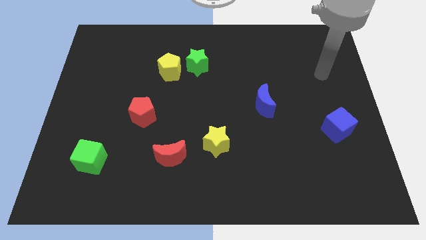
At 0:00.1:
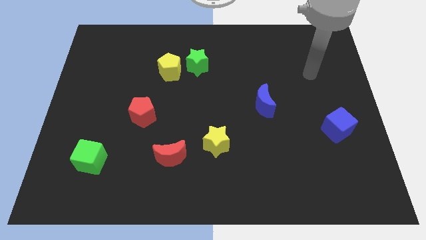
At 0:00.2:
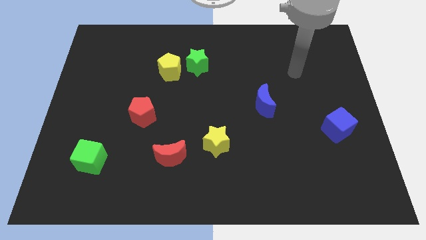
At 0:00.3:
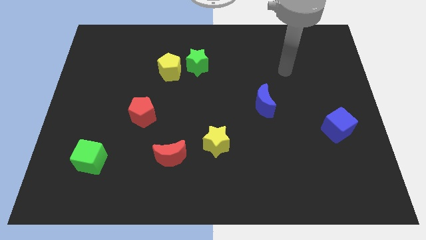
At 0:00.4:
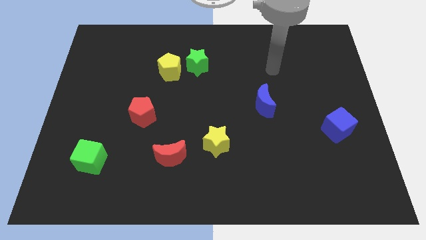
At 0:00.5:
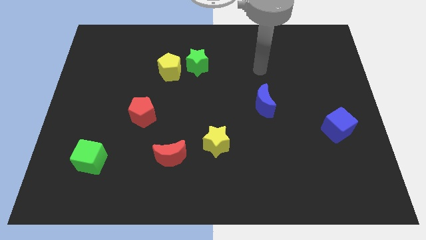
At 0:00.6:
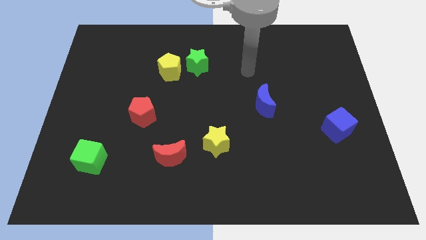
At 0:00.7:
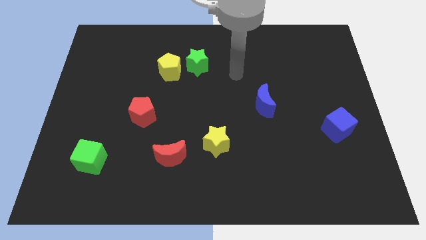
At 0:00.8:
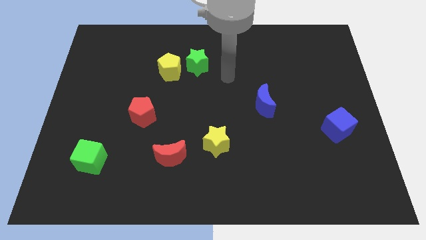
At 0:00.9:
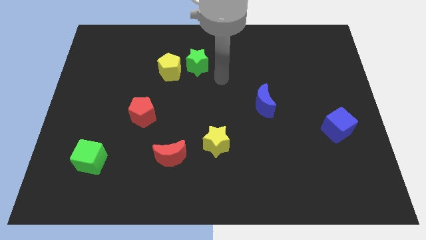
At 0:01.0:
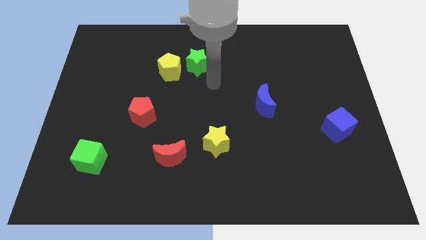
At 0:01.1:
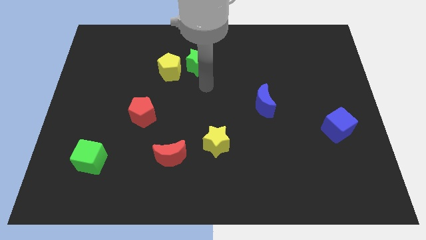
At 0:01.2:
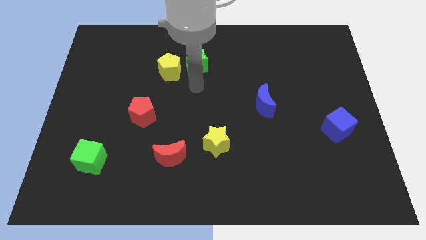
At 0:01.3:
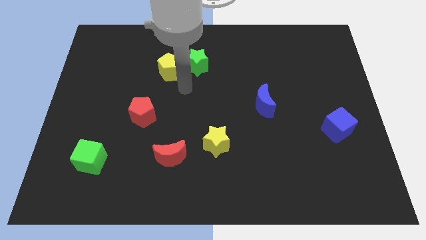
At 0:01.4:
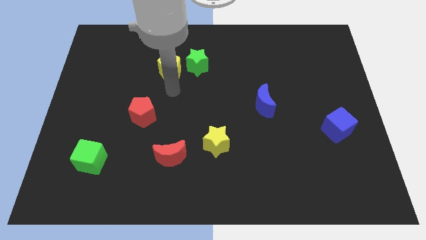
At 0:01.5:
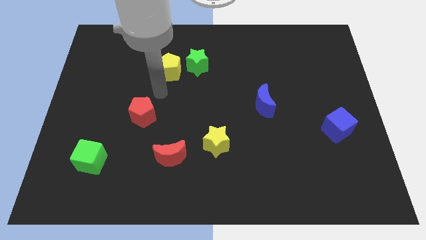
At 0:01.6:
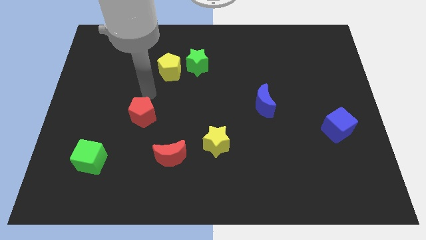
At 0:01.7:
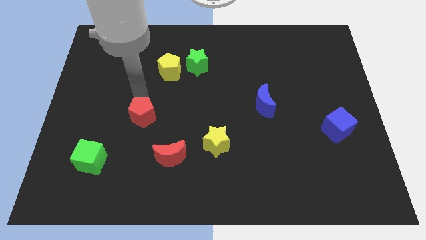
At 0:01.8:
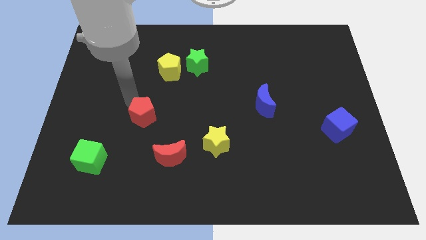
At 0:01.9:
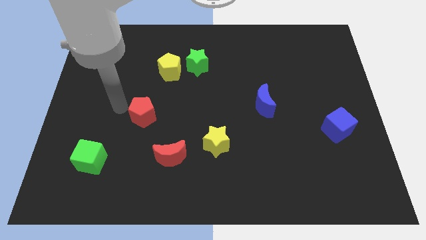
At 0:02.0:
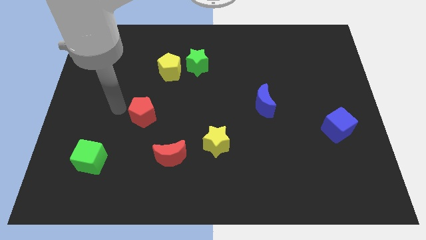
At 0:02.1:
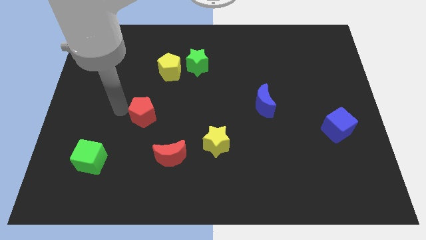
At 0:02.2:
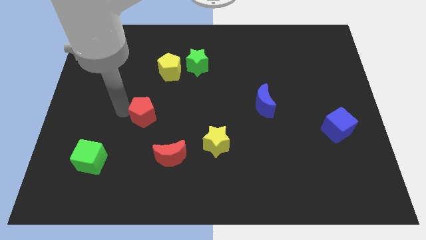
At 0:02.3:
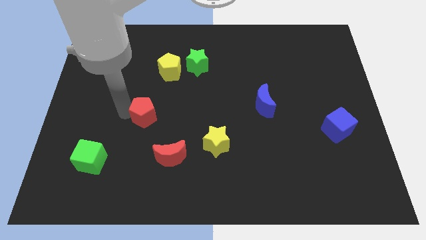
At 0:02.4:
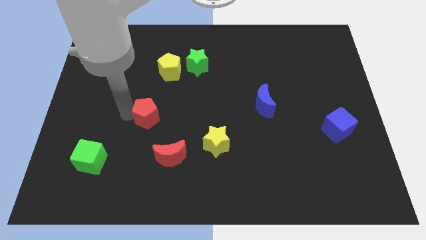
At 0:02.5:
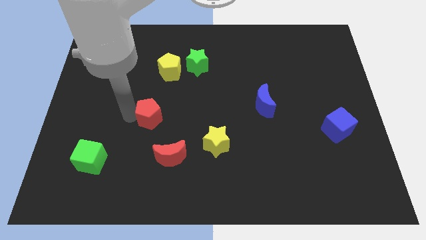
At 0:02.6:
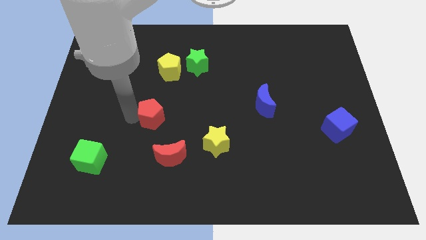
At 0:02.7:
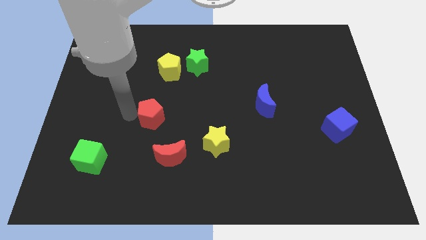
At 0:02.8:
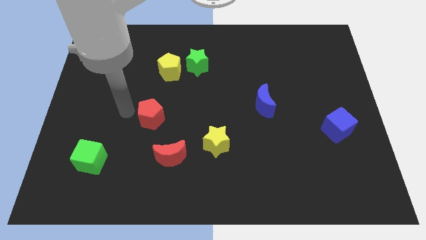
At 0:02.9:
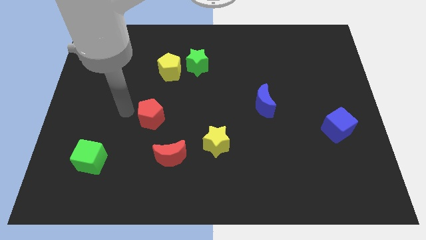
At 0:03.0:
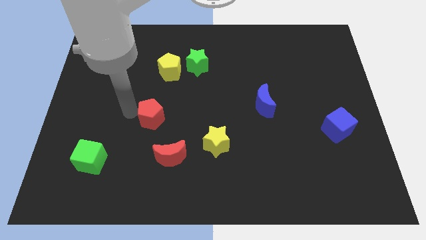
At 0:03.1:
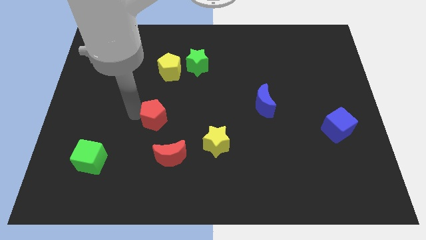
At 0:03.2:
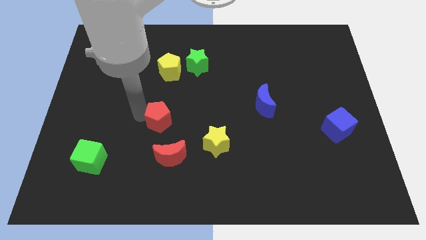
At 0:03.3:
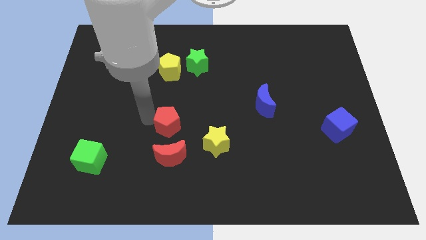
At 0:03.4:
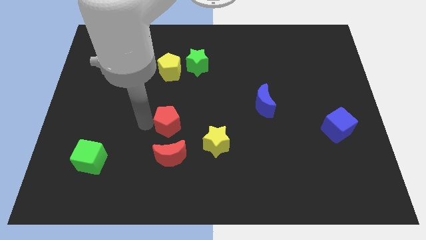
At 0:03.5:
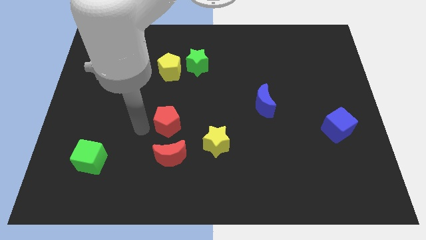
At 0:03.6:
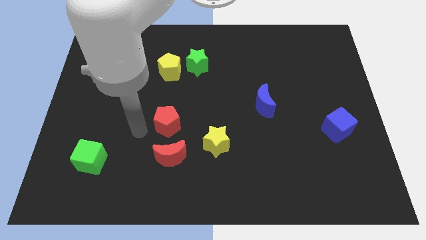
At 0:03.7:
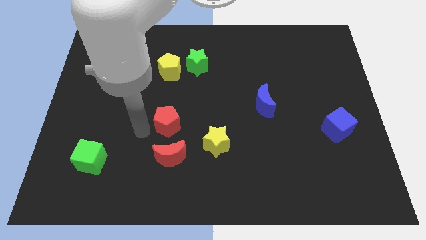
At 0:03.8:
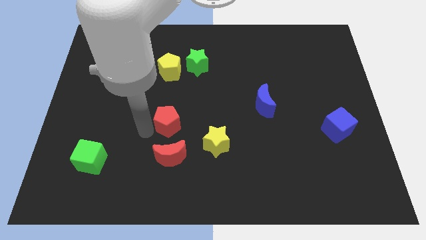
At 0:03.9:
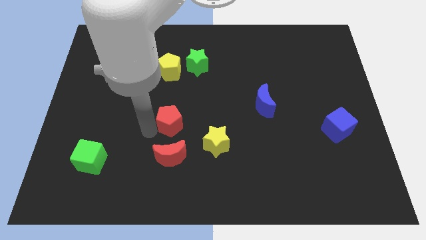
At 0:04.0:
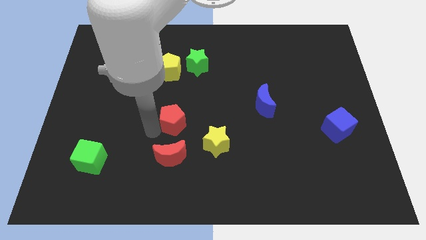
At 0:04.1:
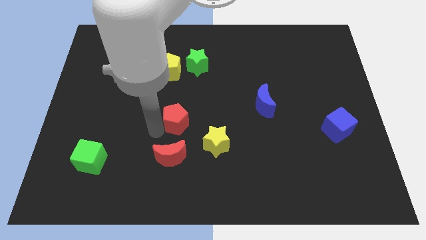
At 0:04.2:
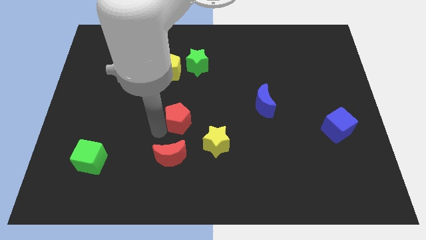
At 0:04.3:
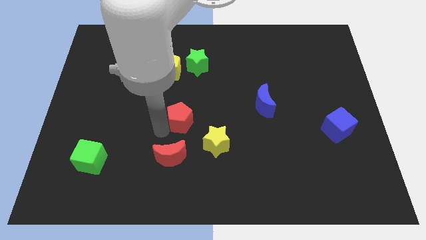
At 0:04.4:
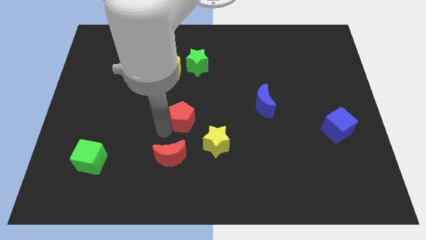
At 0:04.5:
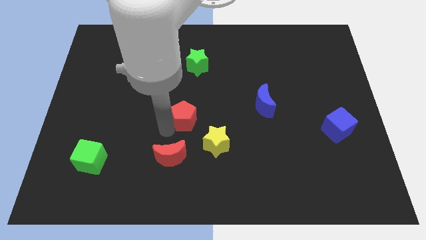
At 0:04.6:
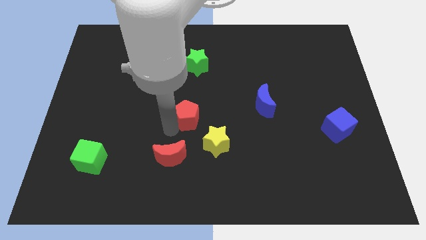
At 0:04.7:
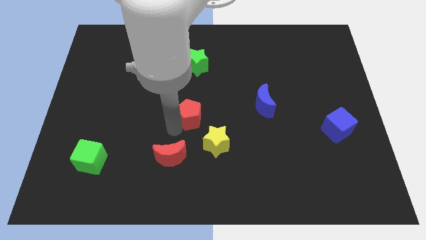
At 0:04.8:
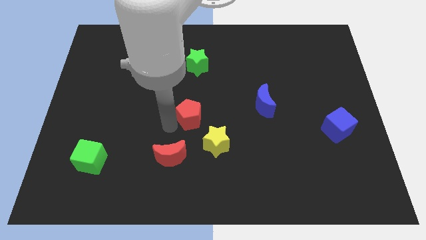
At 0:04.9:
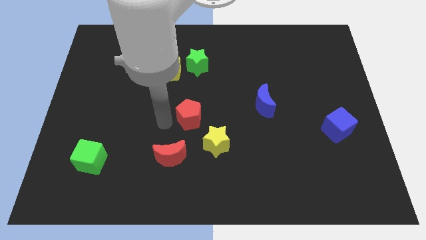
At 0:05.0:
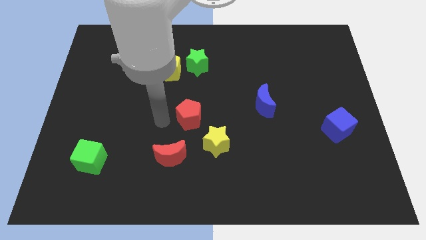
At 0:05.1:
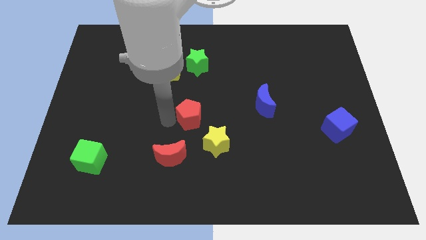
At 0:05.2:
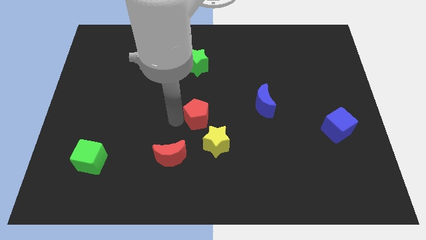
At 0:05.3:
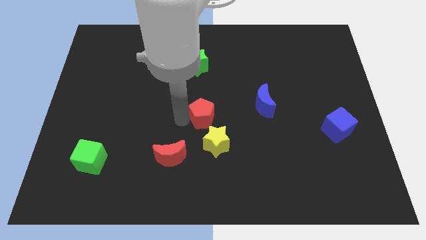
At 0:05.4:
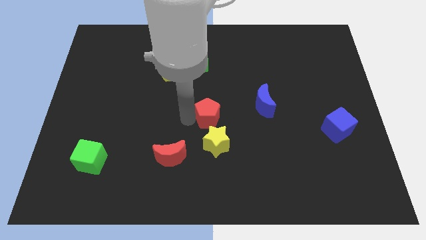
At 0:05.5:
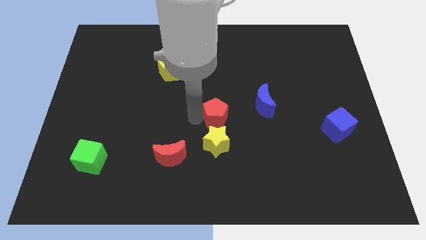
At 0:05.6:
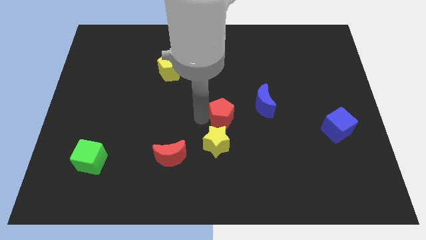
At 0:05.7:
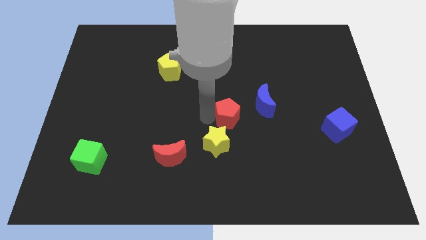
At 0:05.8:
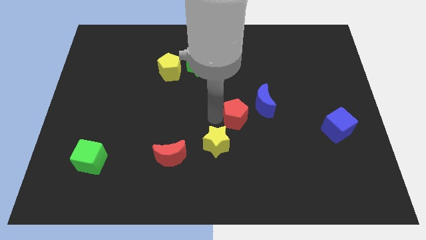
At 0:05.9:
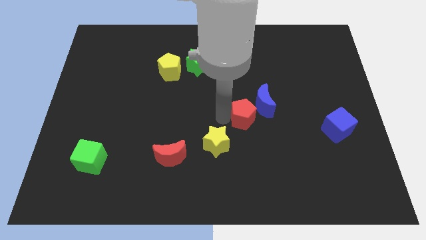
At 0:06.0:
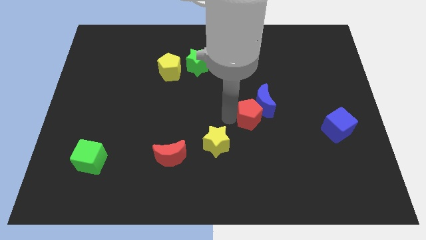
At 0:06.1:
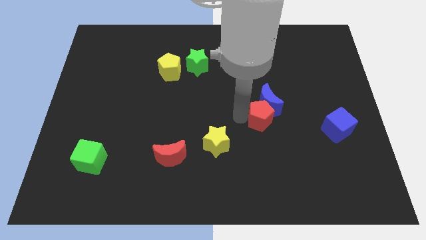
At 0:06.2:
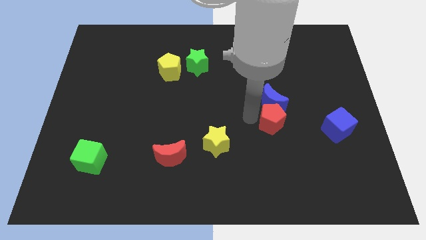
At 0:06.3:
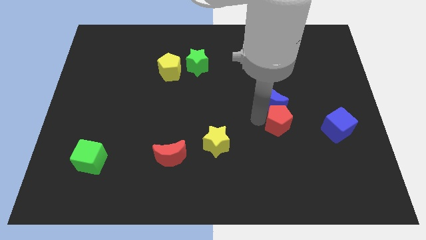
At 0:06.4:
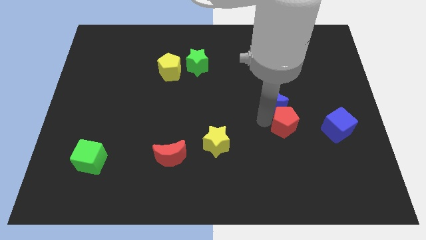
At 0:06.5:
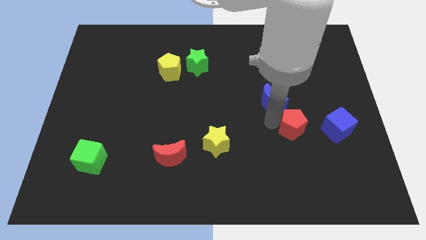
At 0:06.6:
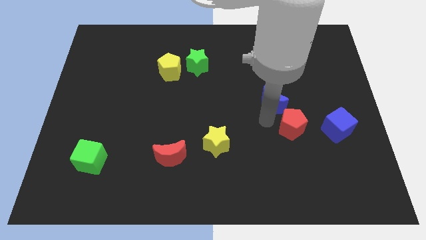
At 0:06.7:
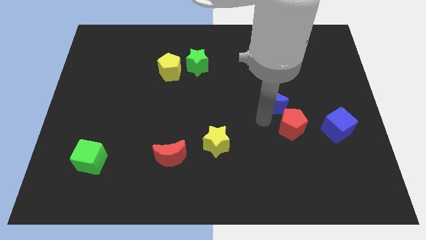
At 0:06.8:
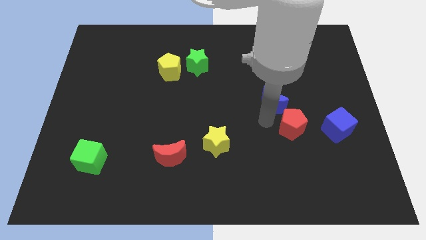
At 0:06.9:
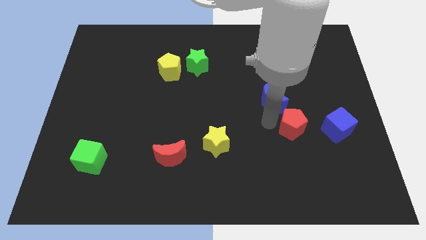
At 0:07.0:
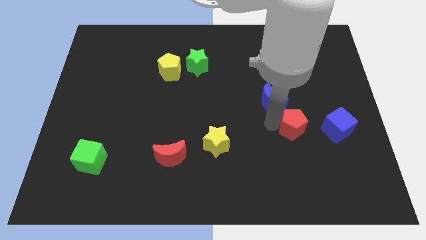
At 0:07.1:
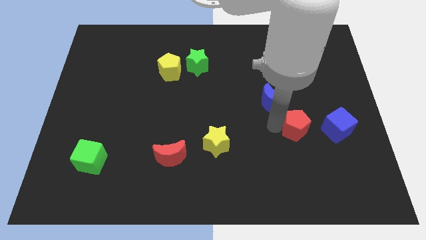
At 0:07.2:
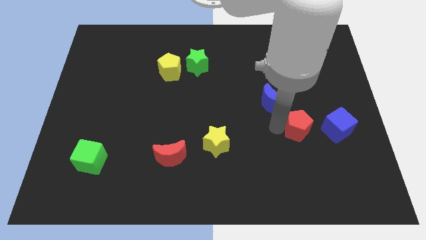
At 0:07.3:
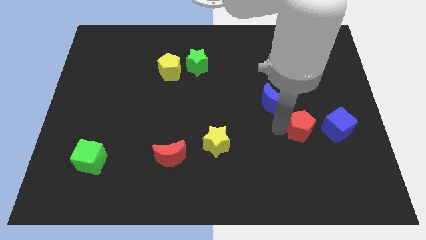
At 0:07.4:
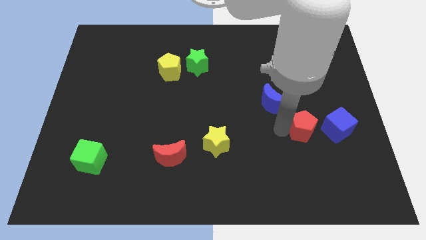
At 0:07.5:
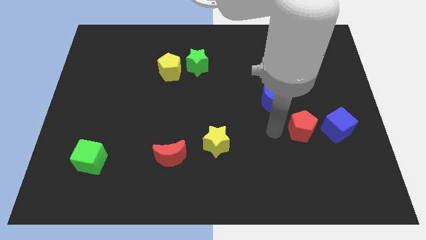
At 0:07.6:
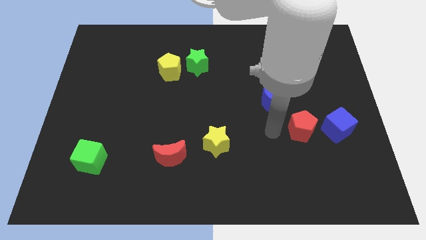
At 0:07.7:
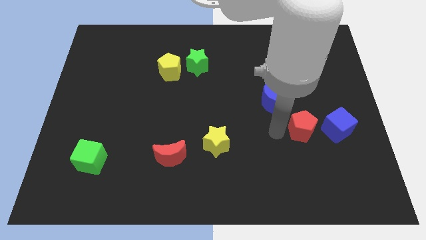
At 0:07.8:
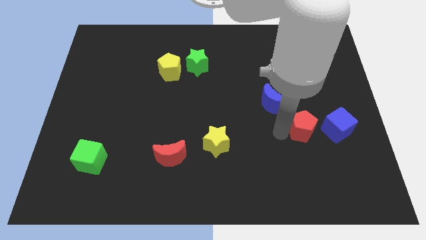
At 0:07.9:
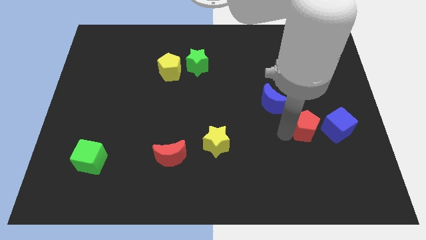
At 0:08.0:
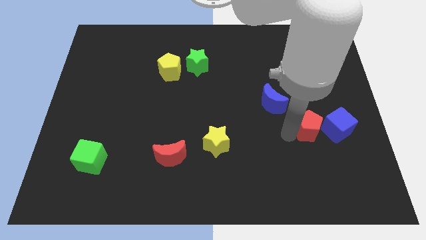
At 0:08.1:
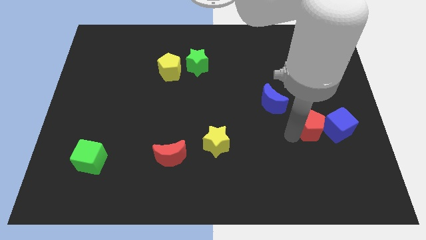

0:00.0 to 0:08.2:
slide the red pentagon close to the blue cube
